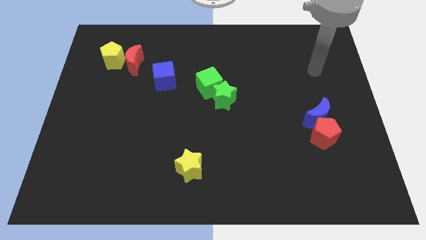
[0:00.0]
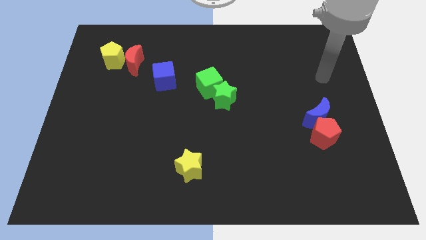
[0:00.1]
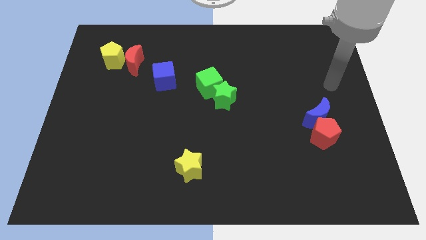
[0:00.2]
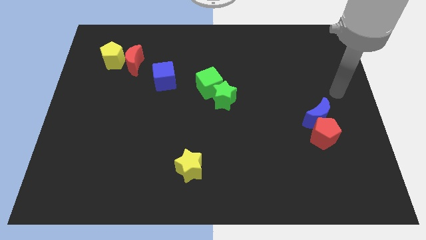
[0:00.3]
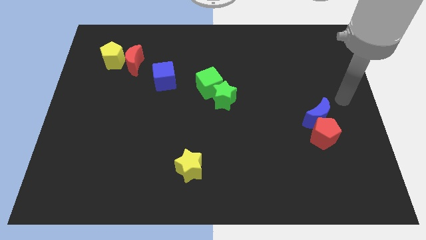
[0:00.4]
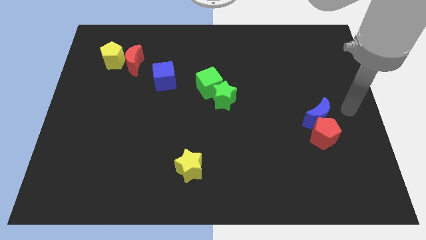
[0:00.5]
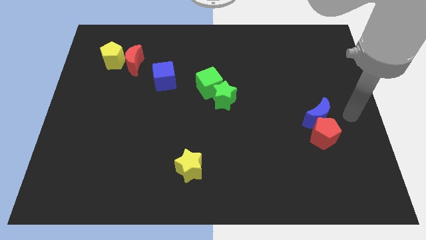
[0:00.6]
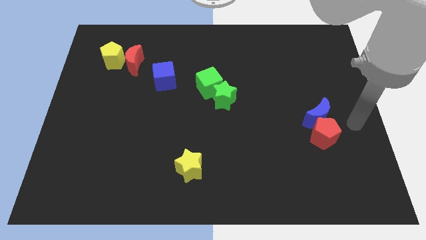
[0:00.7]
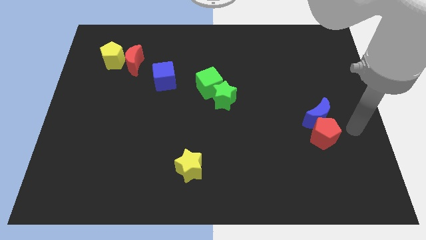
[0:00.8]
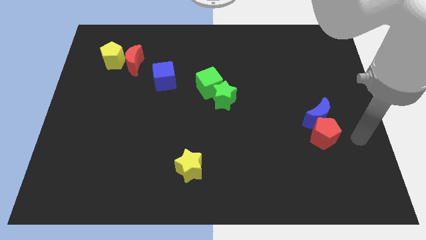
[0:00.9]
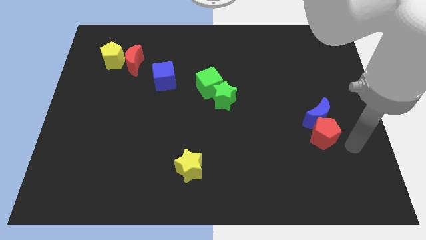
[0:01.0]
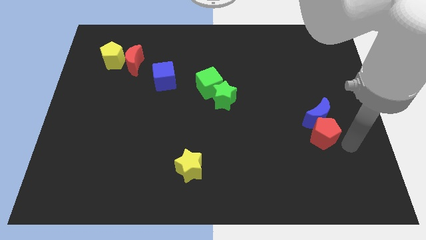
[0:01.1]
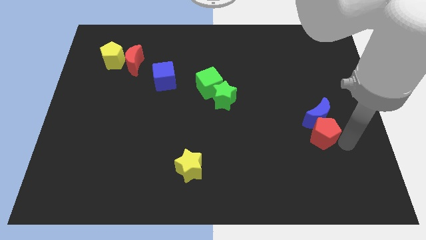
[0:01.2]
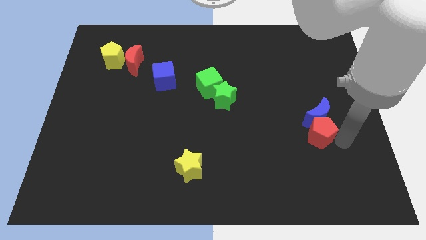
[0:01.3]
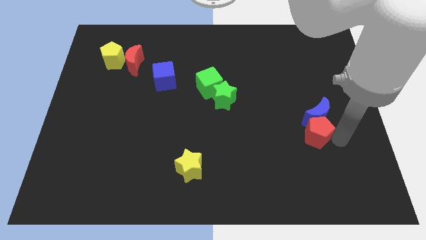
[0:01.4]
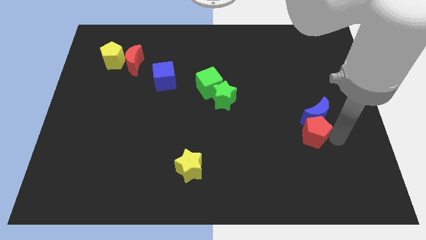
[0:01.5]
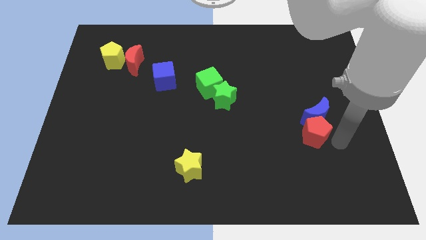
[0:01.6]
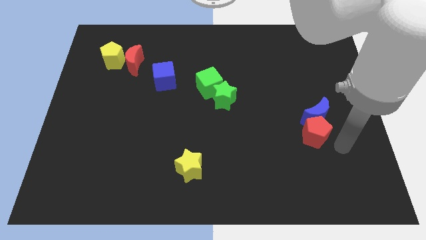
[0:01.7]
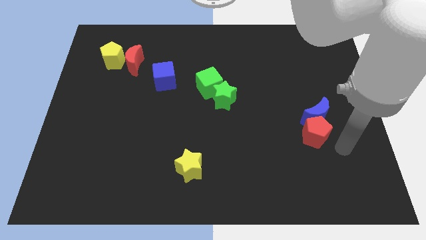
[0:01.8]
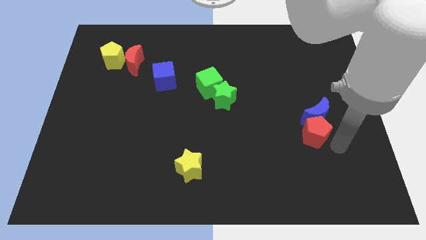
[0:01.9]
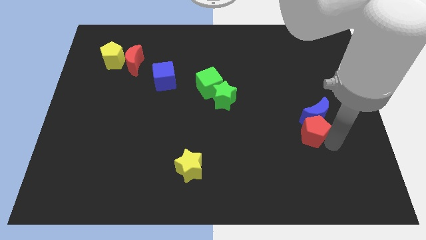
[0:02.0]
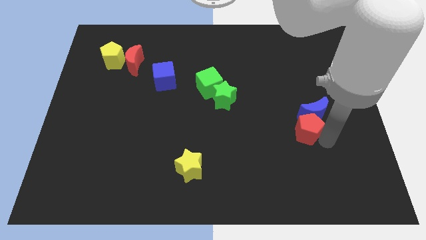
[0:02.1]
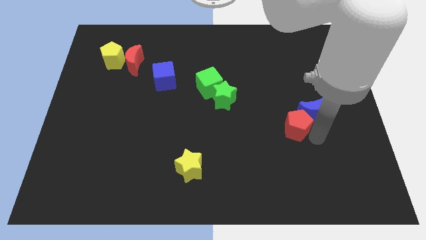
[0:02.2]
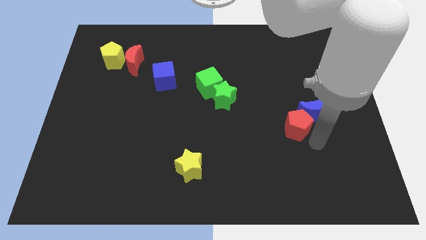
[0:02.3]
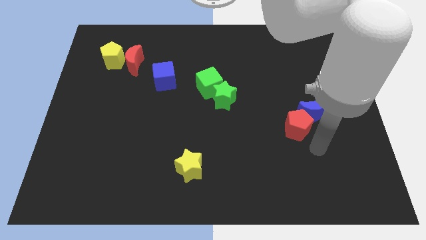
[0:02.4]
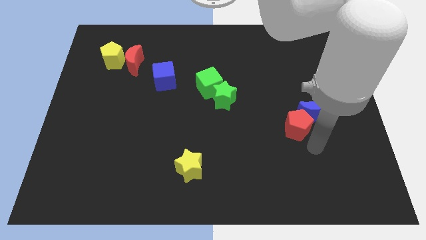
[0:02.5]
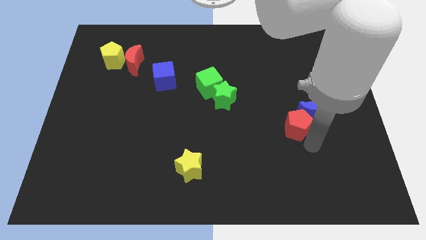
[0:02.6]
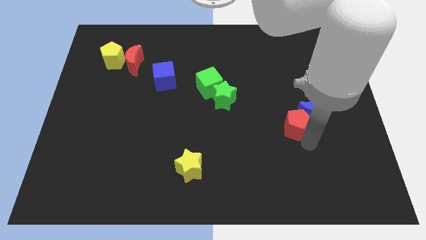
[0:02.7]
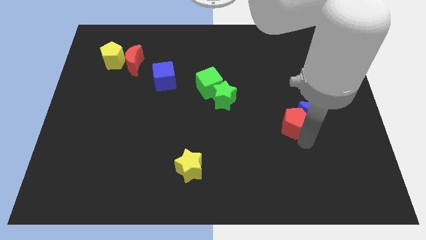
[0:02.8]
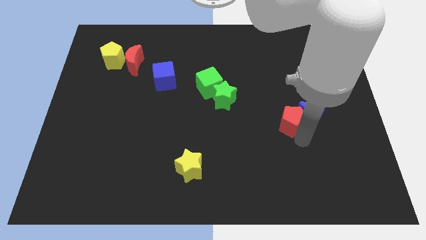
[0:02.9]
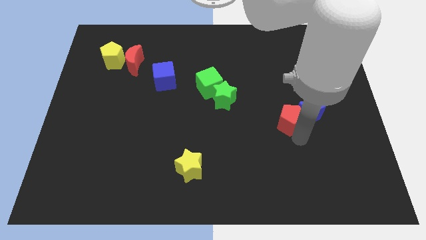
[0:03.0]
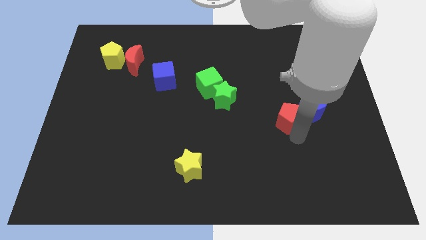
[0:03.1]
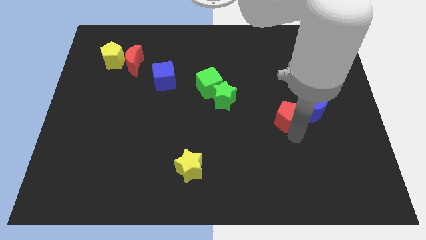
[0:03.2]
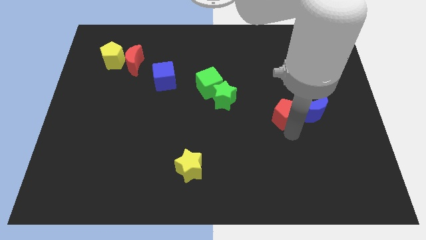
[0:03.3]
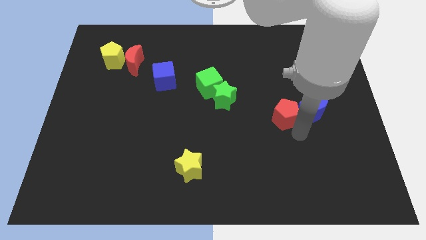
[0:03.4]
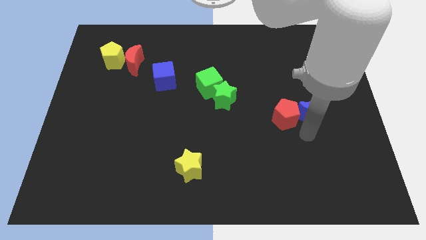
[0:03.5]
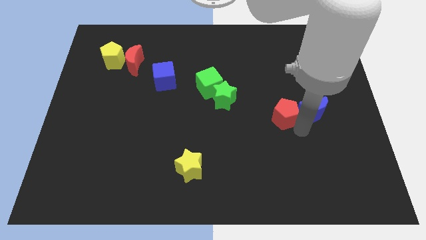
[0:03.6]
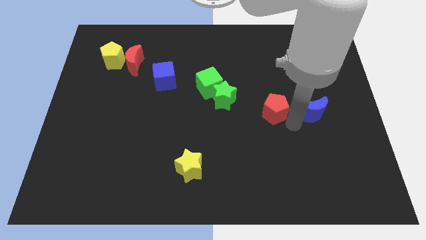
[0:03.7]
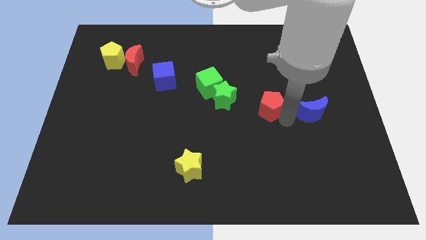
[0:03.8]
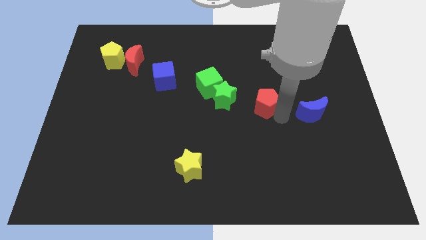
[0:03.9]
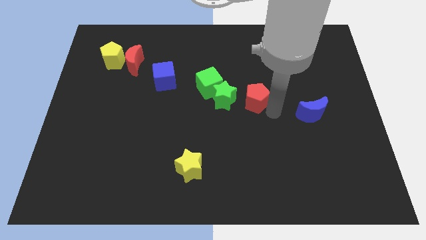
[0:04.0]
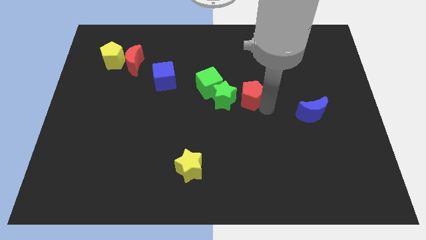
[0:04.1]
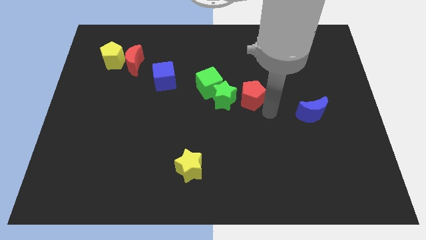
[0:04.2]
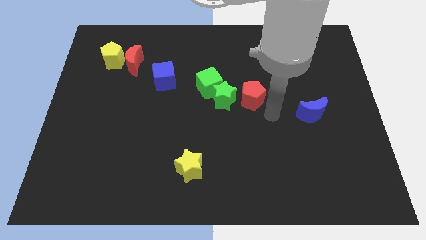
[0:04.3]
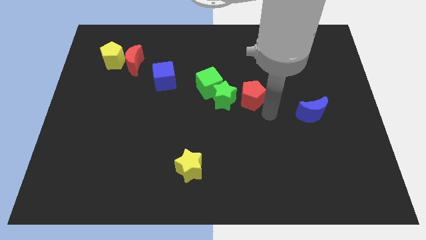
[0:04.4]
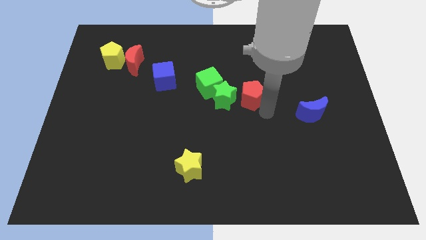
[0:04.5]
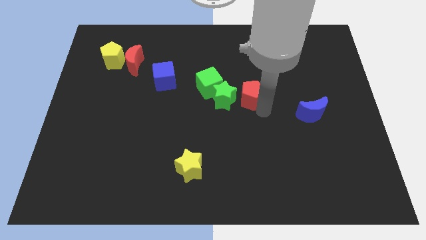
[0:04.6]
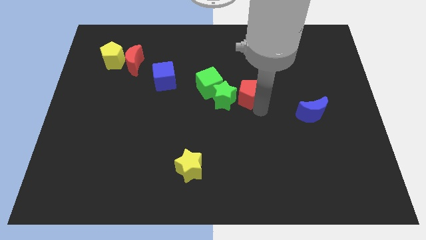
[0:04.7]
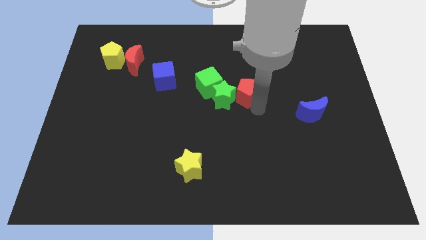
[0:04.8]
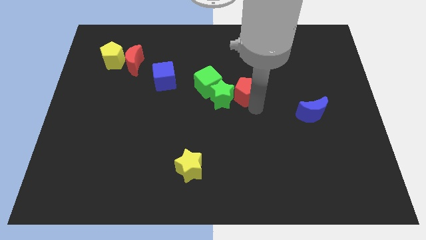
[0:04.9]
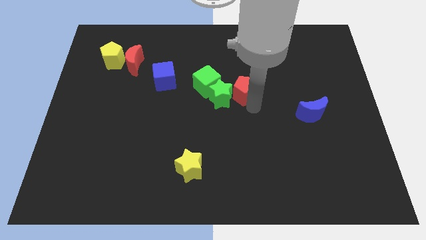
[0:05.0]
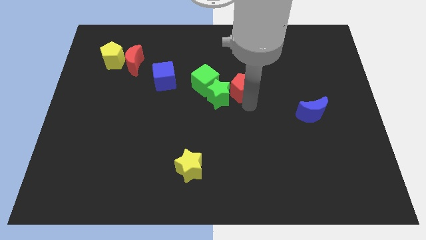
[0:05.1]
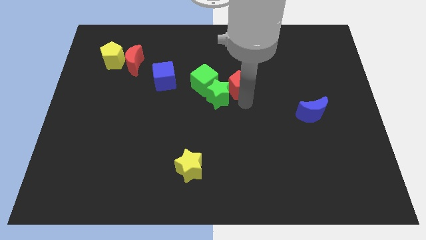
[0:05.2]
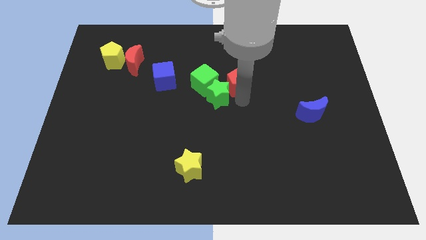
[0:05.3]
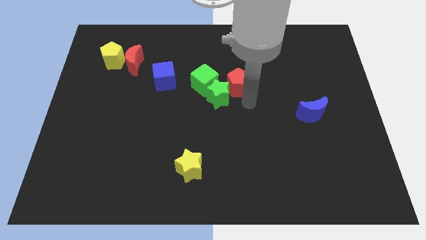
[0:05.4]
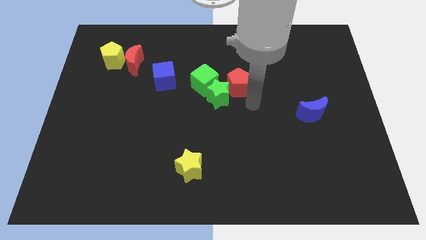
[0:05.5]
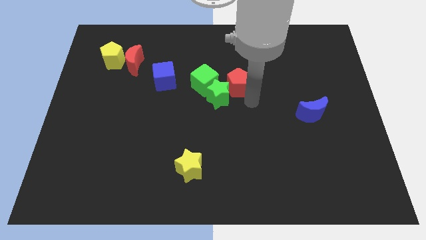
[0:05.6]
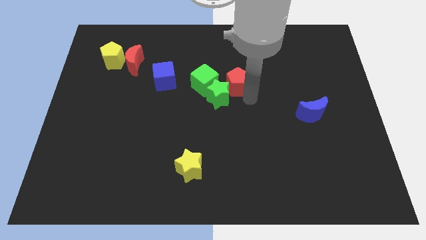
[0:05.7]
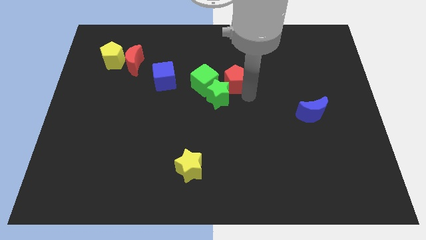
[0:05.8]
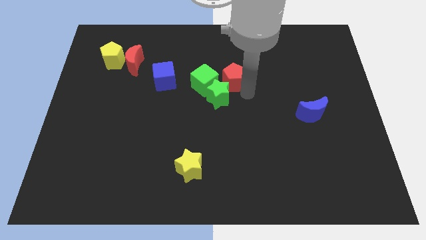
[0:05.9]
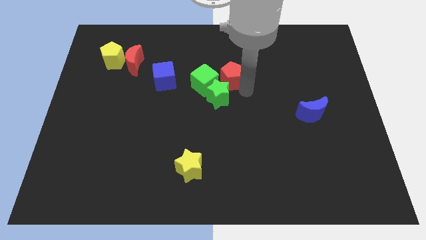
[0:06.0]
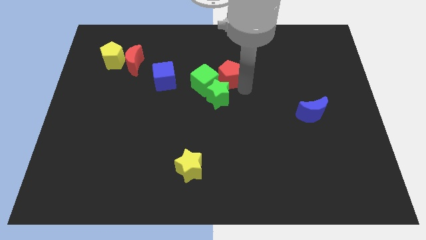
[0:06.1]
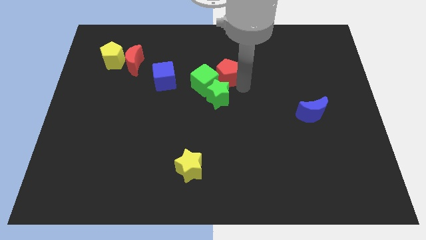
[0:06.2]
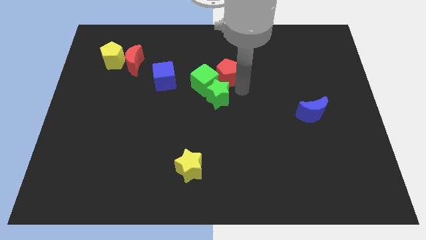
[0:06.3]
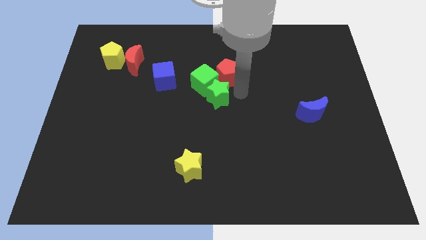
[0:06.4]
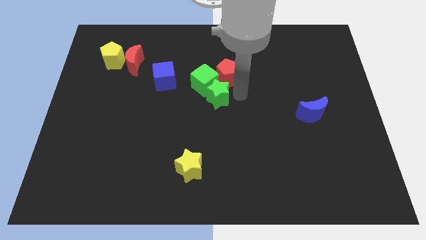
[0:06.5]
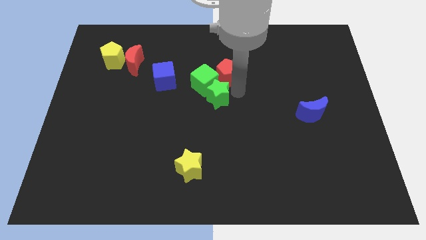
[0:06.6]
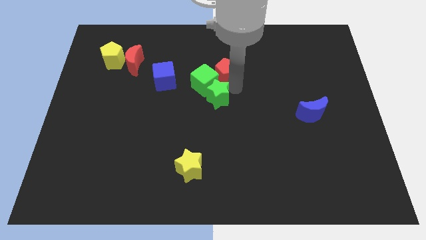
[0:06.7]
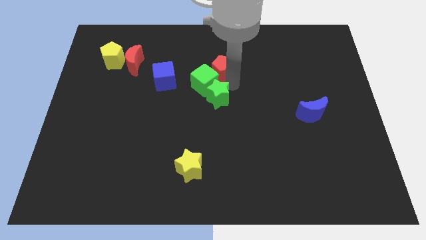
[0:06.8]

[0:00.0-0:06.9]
move the red pentagon to the top of the green cube
